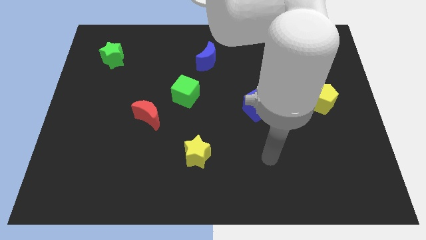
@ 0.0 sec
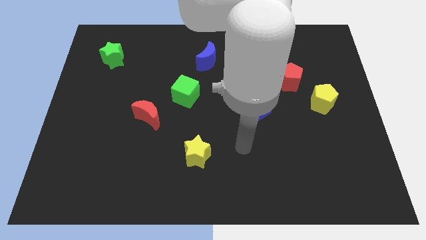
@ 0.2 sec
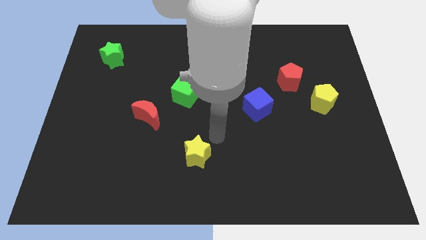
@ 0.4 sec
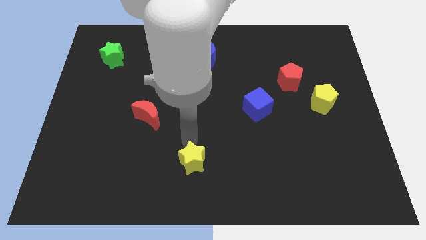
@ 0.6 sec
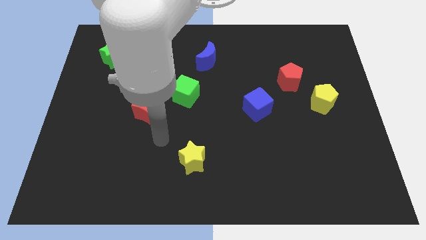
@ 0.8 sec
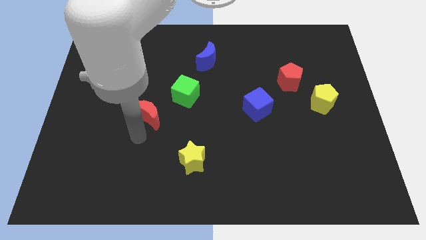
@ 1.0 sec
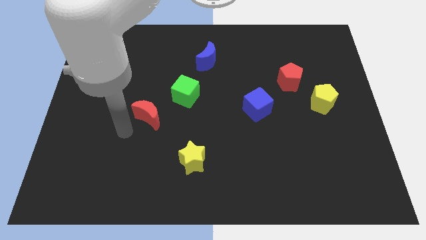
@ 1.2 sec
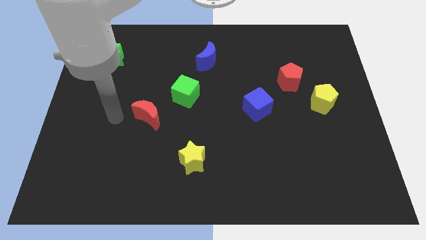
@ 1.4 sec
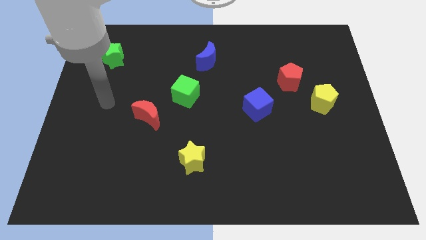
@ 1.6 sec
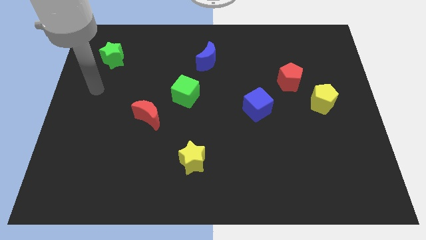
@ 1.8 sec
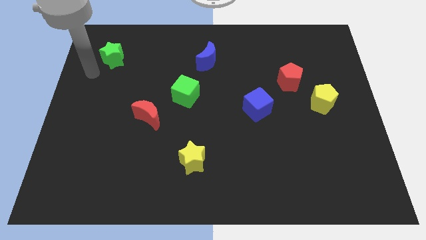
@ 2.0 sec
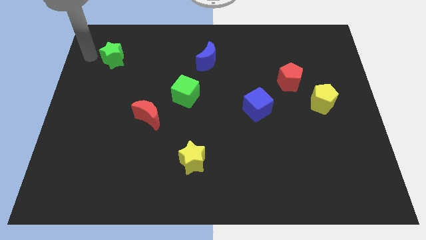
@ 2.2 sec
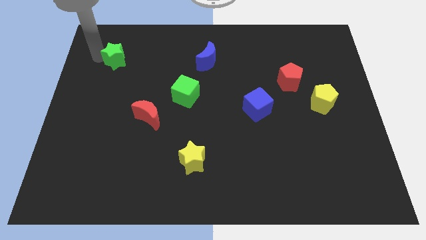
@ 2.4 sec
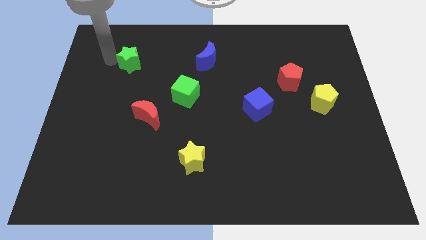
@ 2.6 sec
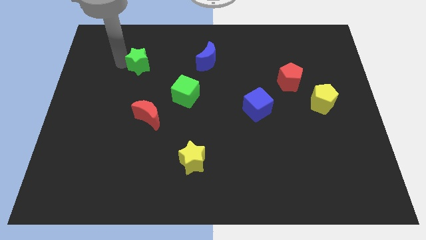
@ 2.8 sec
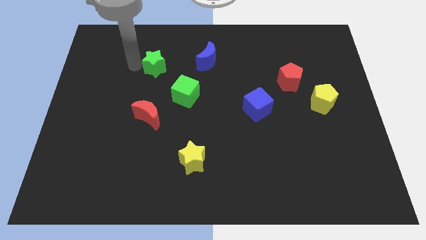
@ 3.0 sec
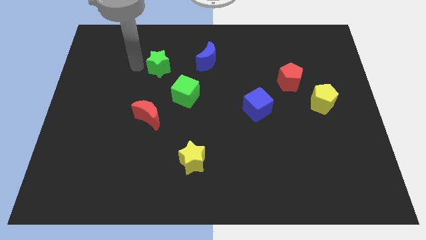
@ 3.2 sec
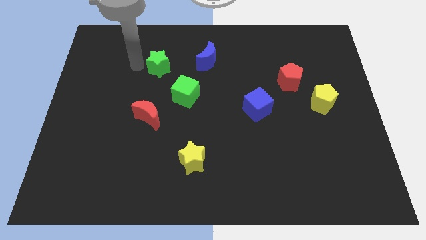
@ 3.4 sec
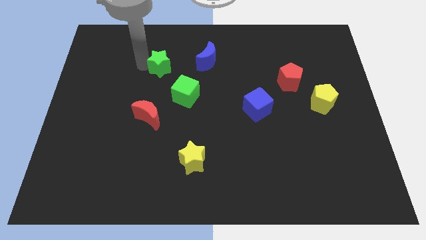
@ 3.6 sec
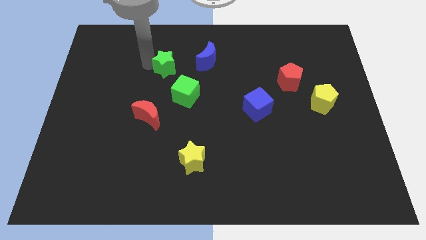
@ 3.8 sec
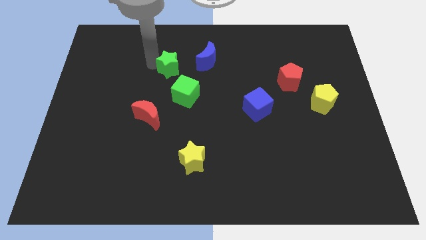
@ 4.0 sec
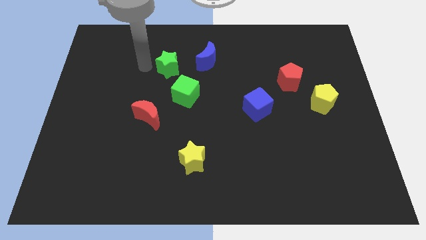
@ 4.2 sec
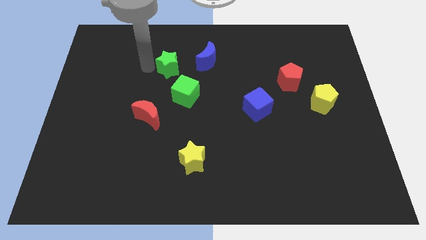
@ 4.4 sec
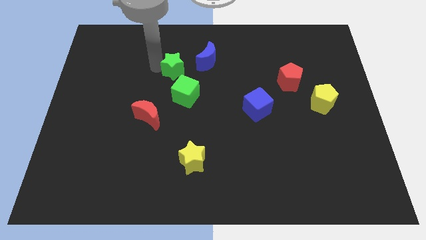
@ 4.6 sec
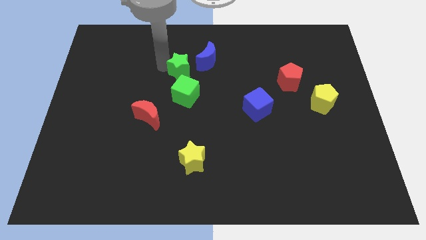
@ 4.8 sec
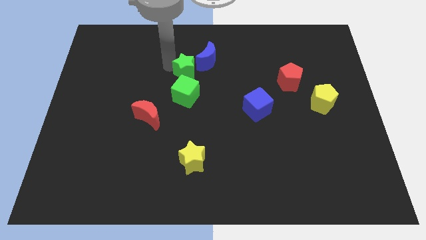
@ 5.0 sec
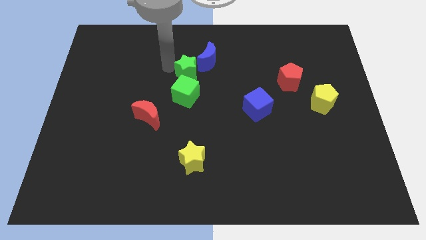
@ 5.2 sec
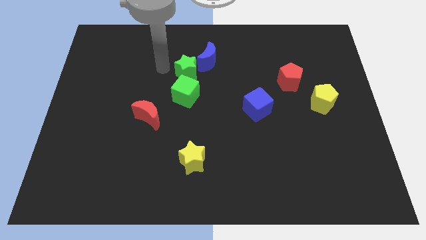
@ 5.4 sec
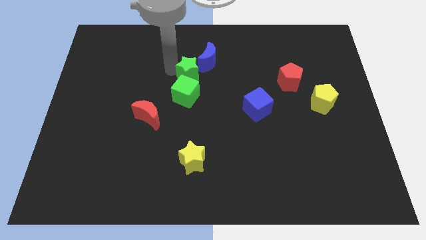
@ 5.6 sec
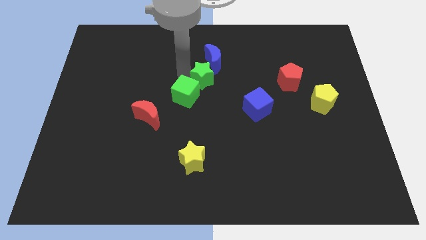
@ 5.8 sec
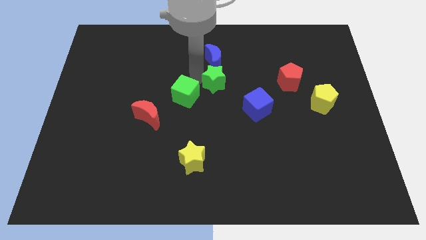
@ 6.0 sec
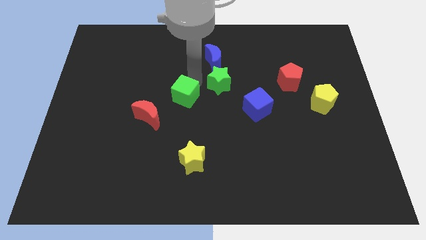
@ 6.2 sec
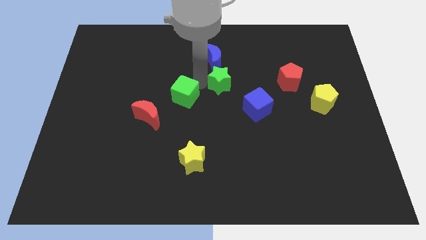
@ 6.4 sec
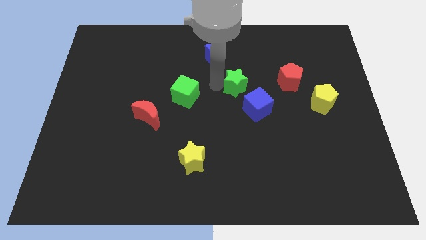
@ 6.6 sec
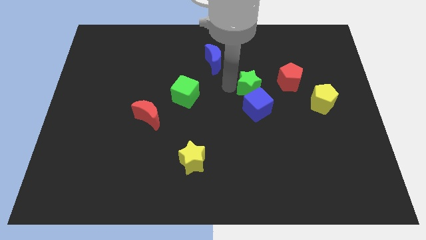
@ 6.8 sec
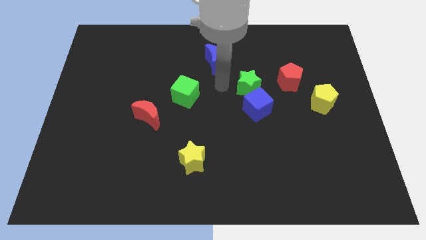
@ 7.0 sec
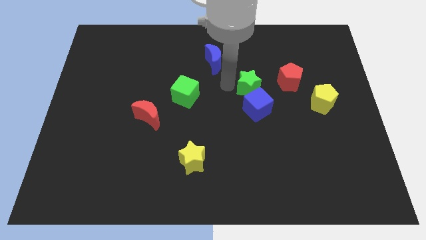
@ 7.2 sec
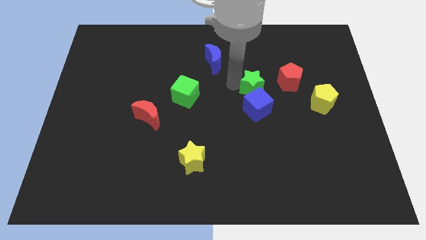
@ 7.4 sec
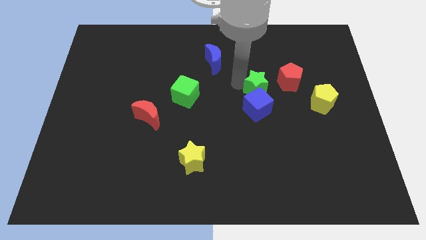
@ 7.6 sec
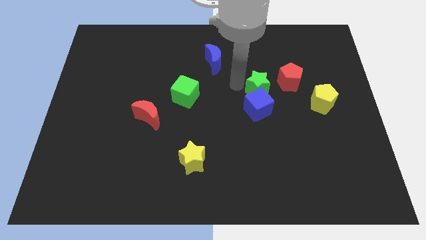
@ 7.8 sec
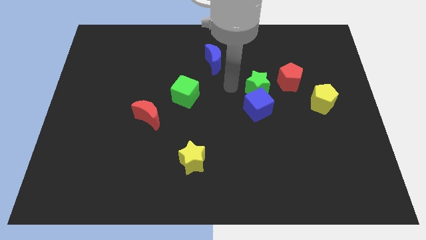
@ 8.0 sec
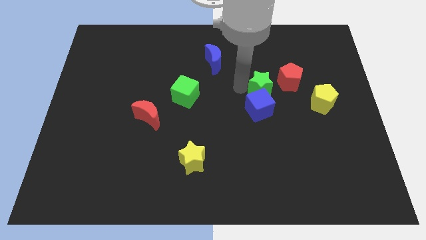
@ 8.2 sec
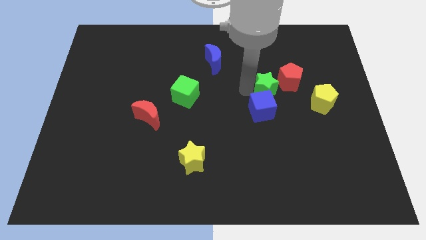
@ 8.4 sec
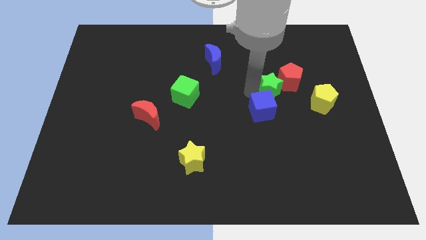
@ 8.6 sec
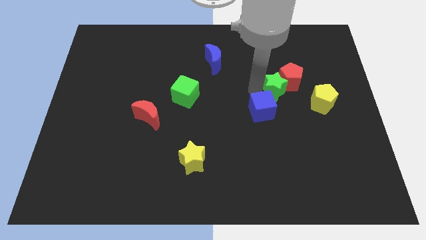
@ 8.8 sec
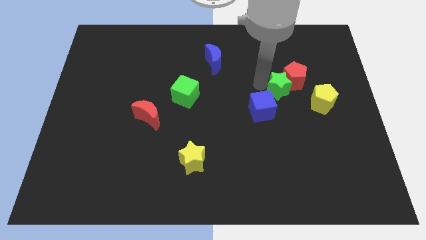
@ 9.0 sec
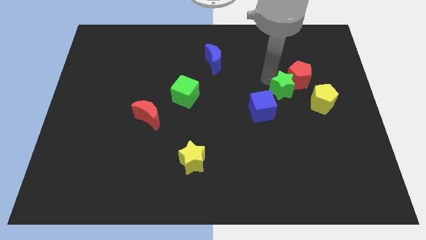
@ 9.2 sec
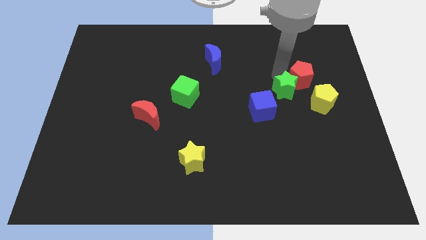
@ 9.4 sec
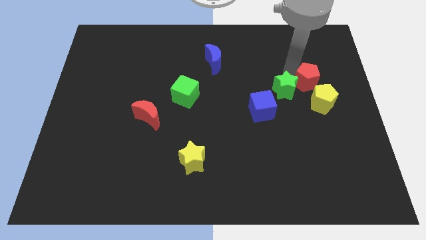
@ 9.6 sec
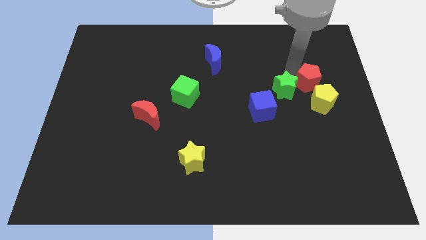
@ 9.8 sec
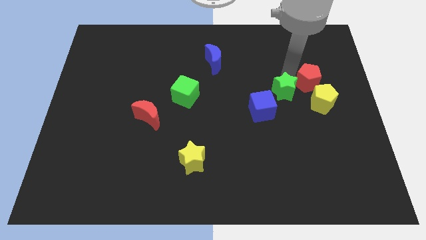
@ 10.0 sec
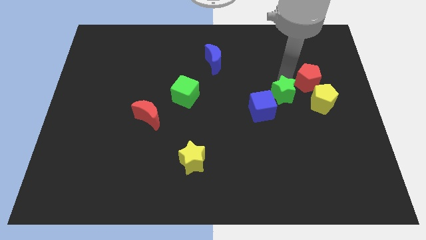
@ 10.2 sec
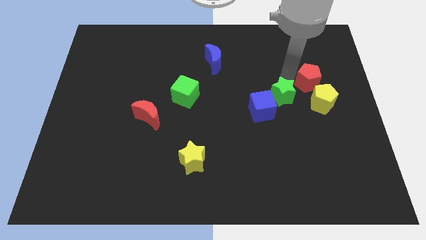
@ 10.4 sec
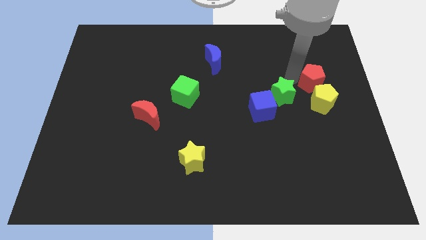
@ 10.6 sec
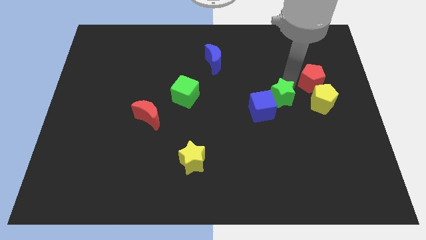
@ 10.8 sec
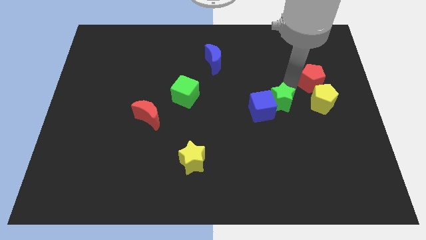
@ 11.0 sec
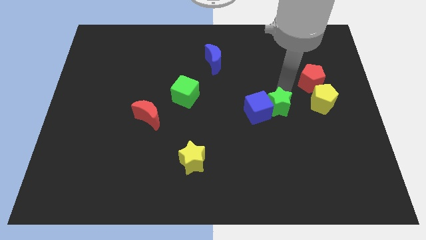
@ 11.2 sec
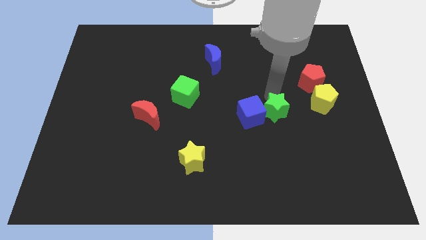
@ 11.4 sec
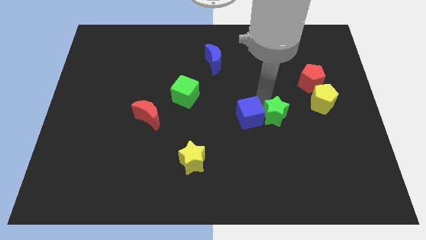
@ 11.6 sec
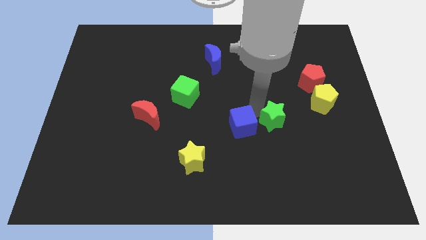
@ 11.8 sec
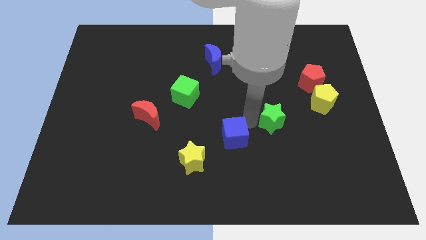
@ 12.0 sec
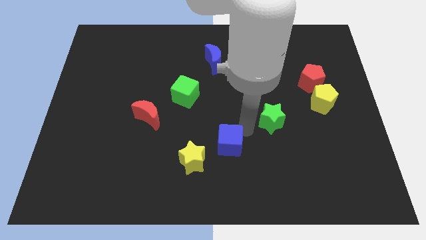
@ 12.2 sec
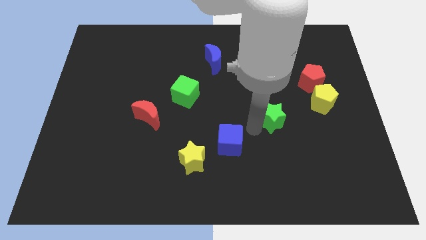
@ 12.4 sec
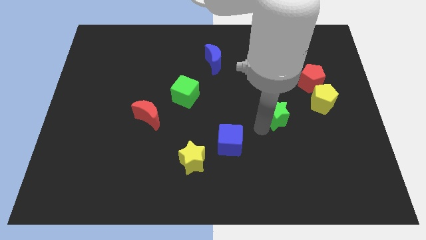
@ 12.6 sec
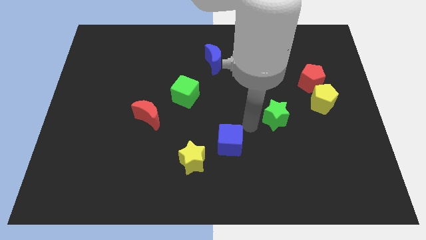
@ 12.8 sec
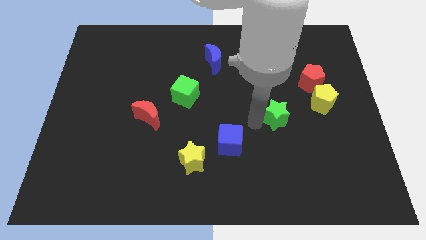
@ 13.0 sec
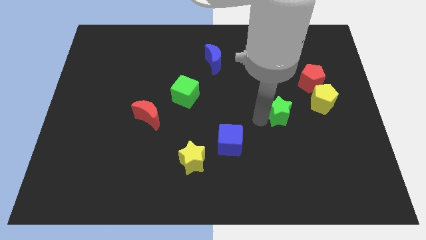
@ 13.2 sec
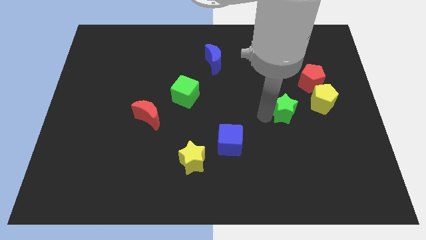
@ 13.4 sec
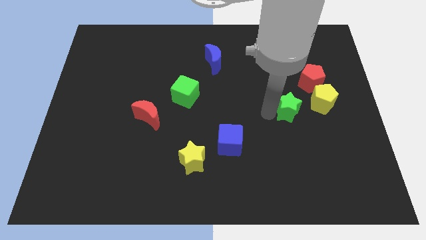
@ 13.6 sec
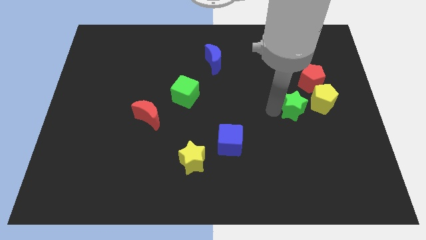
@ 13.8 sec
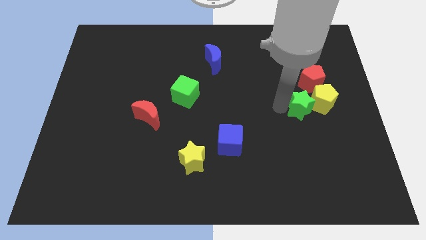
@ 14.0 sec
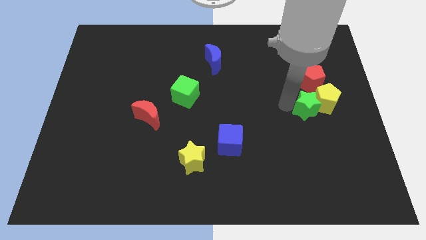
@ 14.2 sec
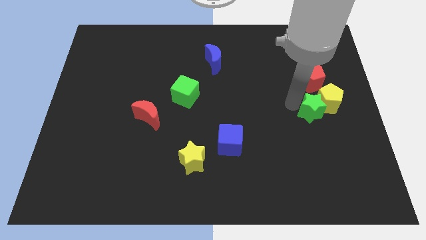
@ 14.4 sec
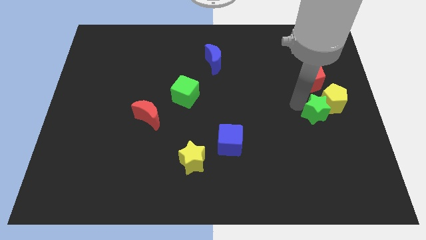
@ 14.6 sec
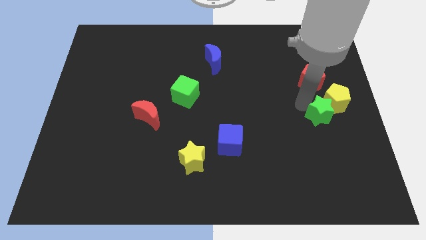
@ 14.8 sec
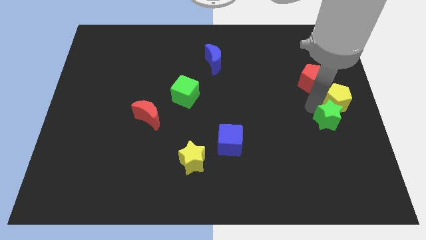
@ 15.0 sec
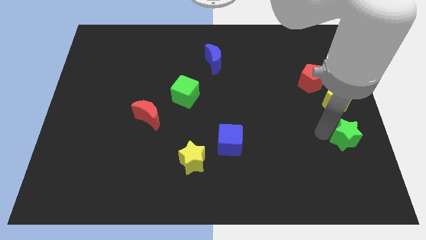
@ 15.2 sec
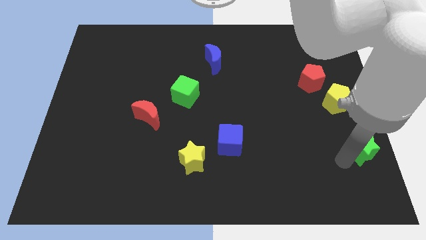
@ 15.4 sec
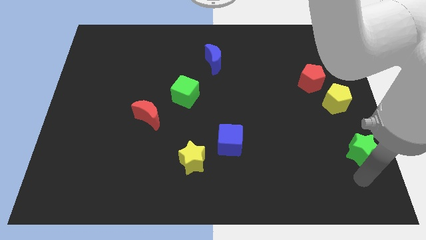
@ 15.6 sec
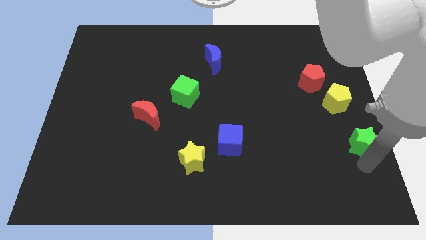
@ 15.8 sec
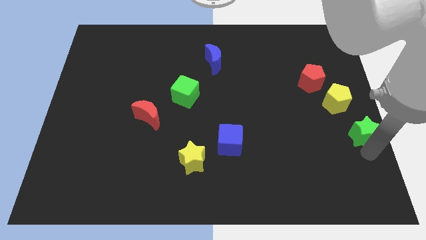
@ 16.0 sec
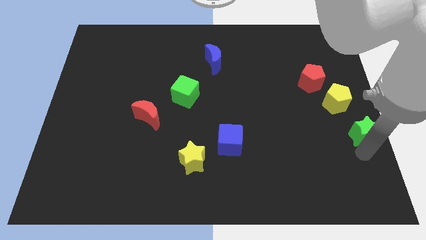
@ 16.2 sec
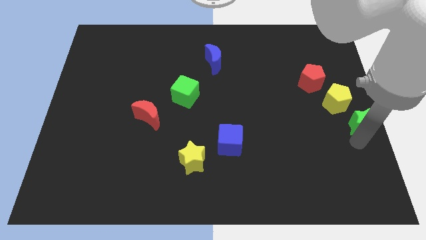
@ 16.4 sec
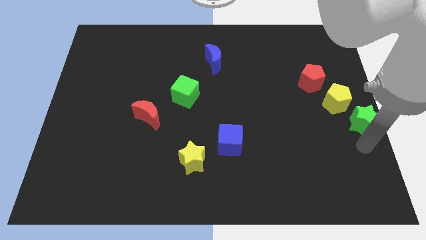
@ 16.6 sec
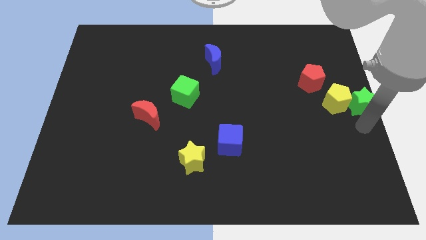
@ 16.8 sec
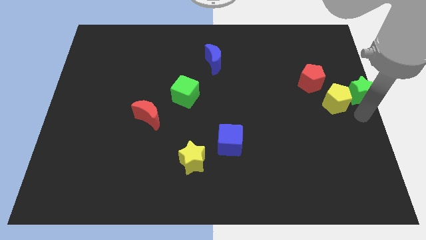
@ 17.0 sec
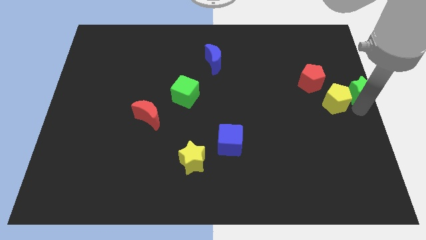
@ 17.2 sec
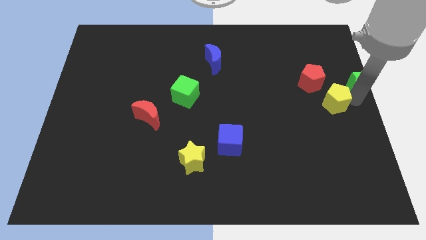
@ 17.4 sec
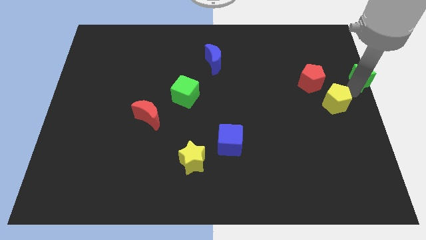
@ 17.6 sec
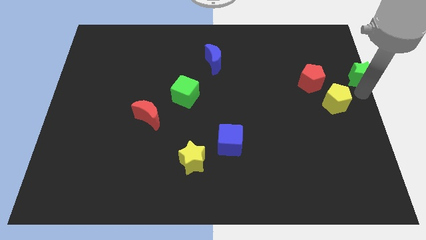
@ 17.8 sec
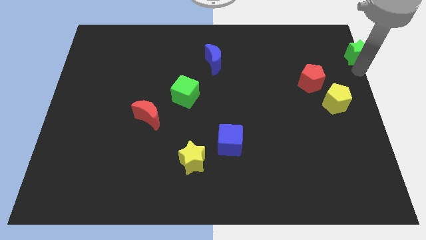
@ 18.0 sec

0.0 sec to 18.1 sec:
put the green star to the upper right corner
